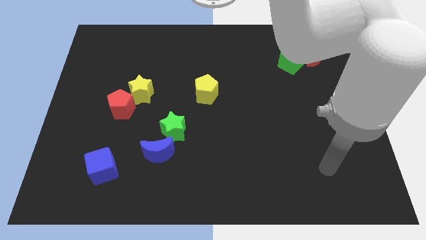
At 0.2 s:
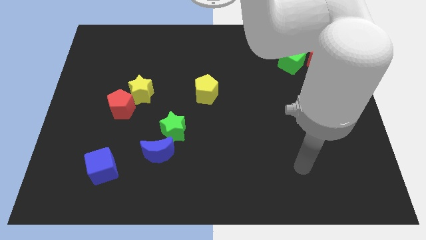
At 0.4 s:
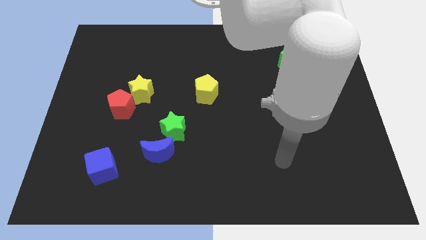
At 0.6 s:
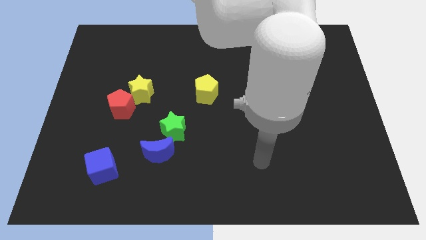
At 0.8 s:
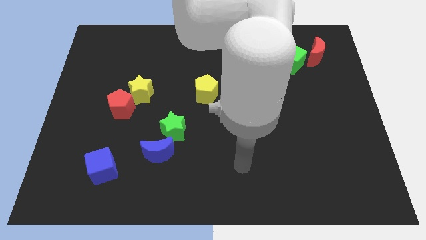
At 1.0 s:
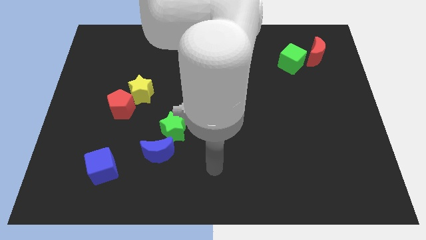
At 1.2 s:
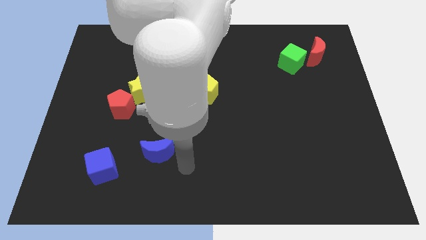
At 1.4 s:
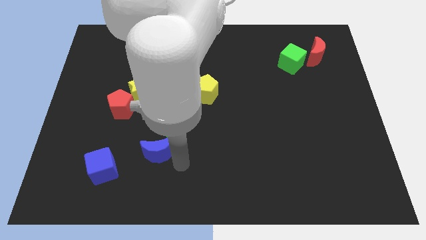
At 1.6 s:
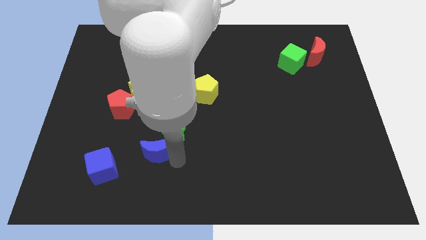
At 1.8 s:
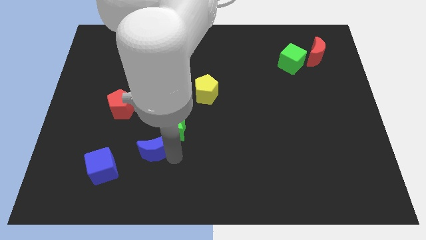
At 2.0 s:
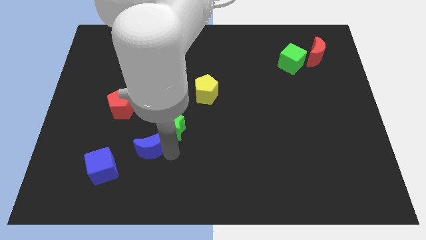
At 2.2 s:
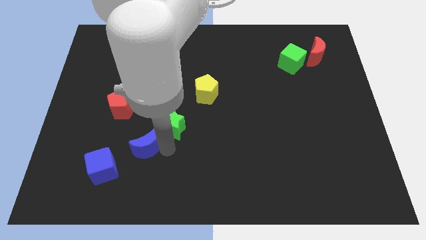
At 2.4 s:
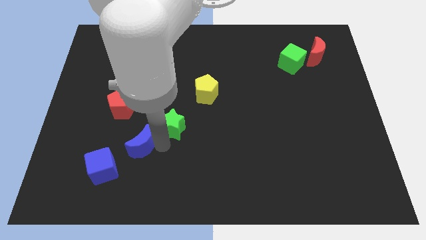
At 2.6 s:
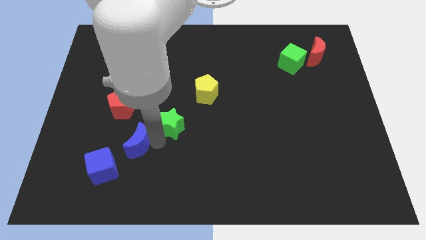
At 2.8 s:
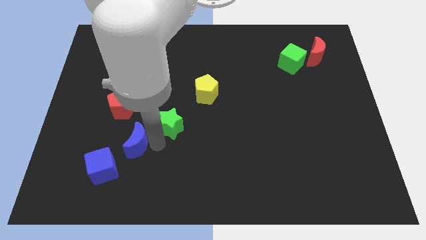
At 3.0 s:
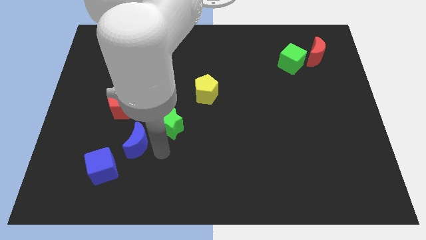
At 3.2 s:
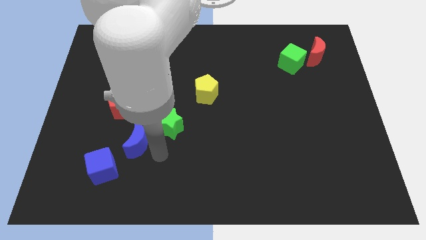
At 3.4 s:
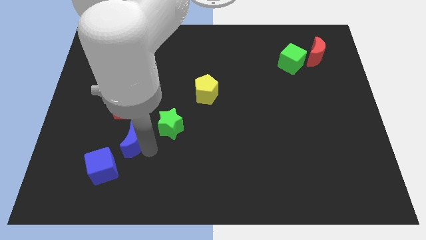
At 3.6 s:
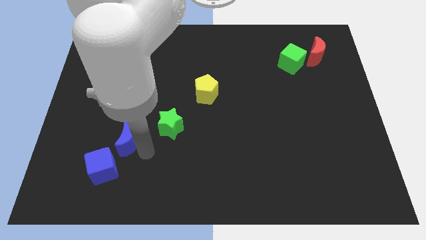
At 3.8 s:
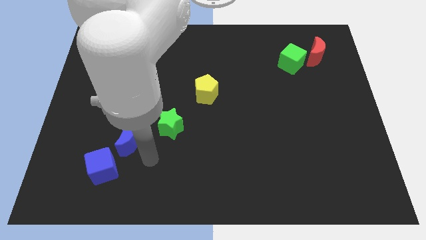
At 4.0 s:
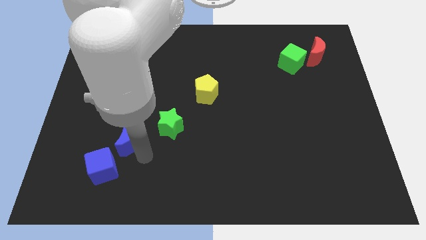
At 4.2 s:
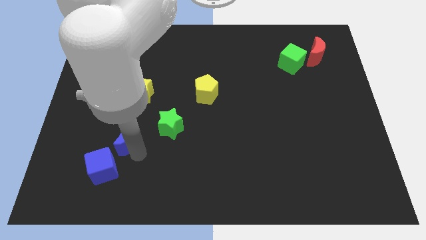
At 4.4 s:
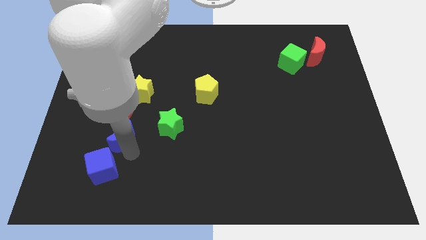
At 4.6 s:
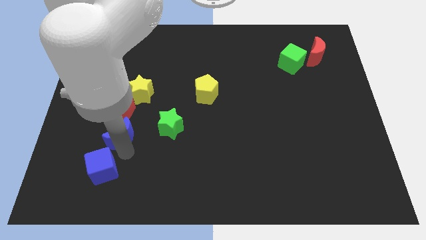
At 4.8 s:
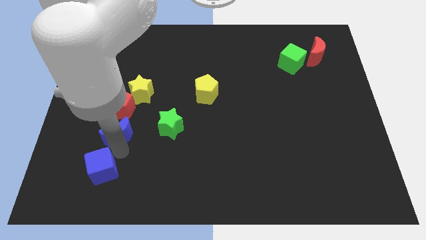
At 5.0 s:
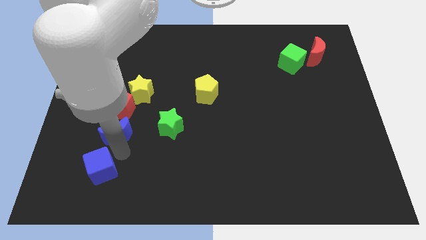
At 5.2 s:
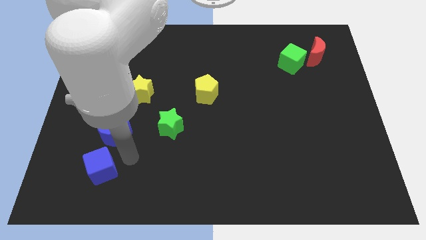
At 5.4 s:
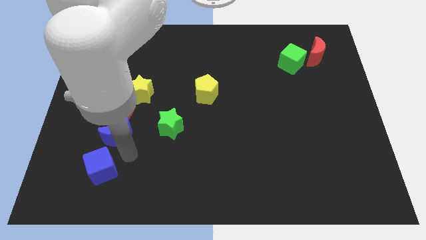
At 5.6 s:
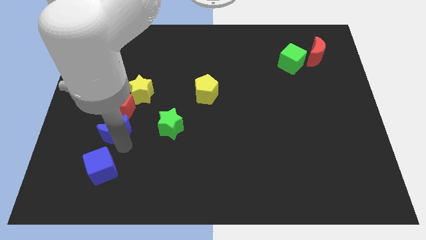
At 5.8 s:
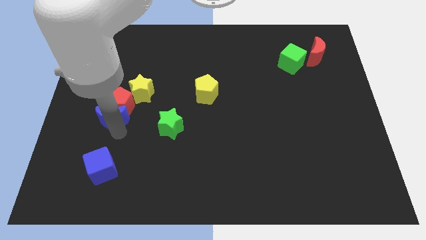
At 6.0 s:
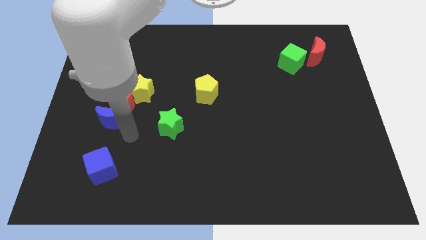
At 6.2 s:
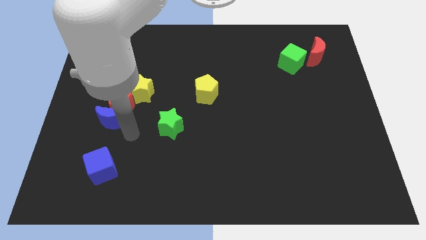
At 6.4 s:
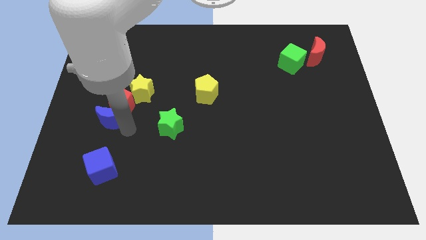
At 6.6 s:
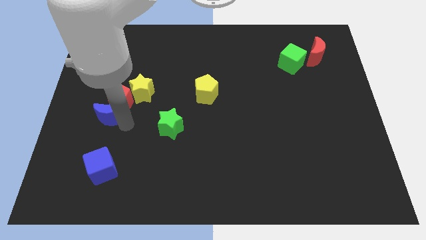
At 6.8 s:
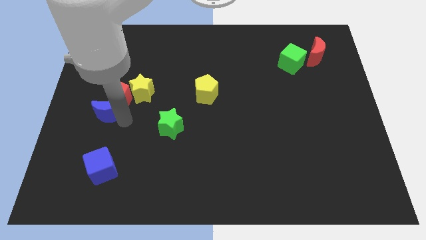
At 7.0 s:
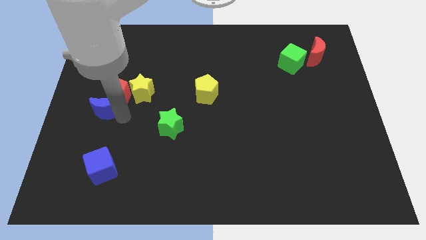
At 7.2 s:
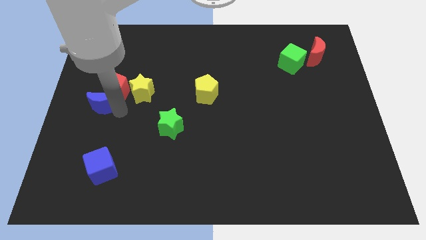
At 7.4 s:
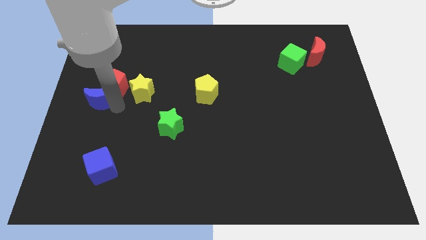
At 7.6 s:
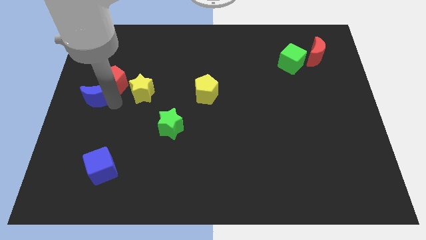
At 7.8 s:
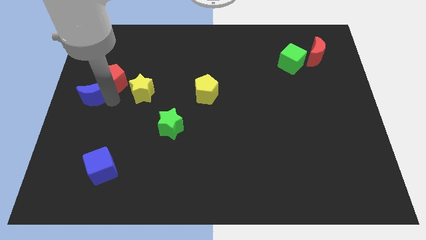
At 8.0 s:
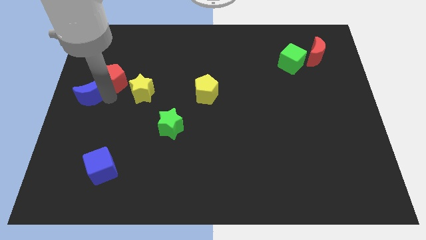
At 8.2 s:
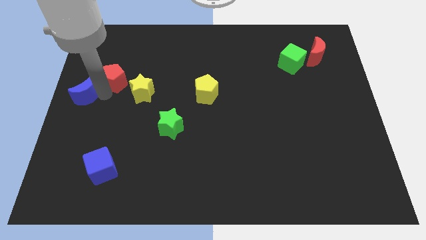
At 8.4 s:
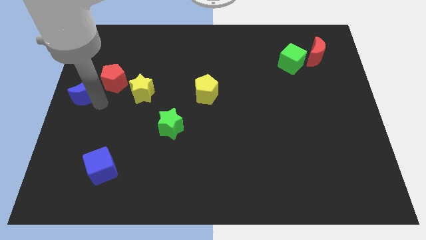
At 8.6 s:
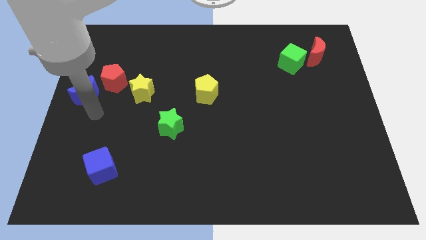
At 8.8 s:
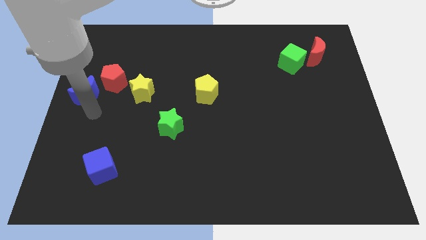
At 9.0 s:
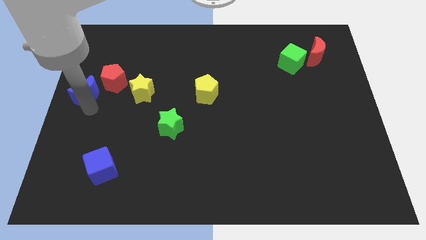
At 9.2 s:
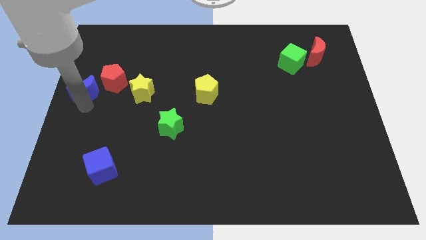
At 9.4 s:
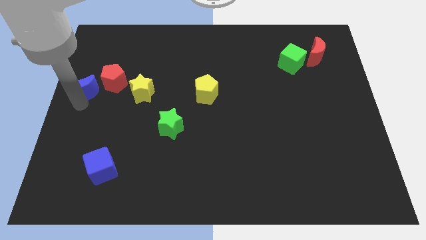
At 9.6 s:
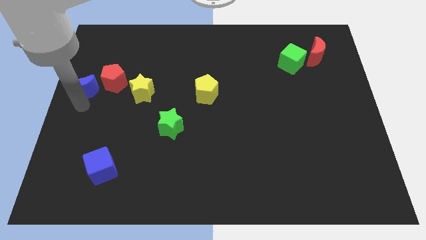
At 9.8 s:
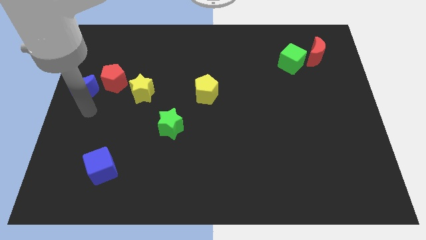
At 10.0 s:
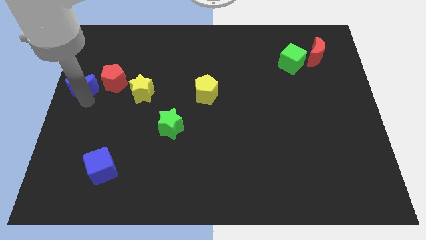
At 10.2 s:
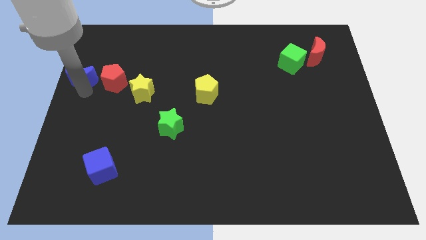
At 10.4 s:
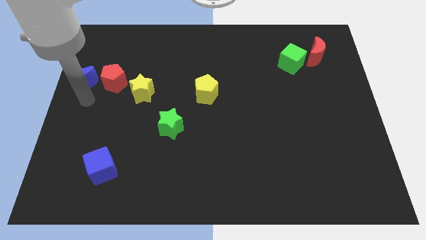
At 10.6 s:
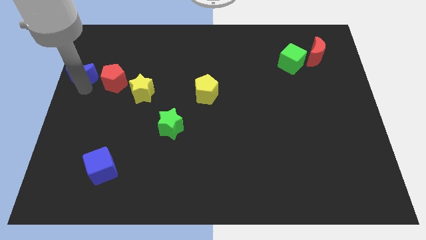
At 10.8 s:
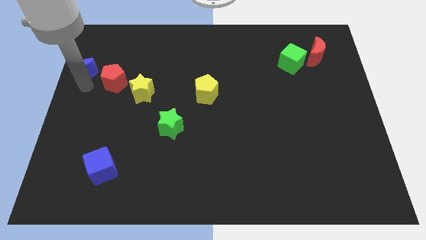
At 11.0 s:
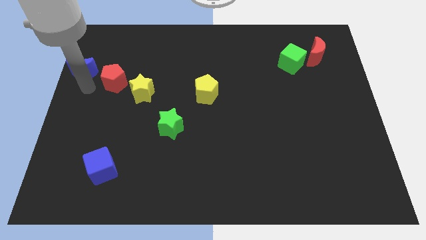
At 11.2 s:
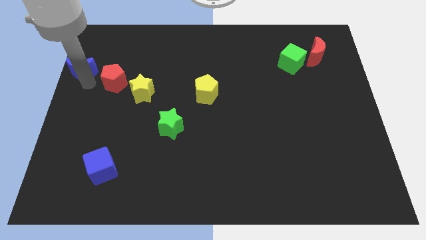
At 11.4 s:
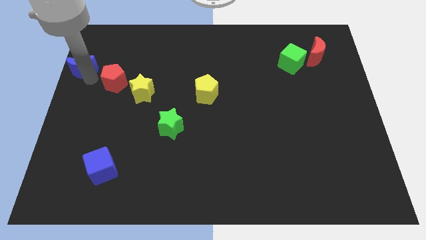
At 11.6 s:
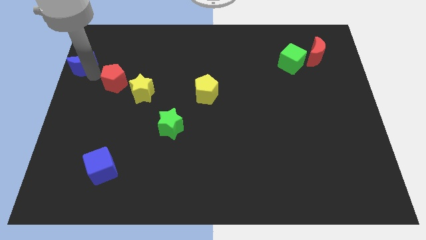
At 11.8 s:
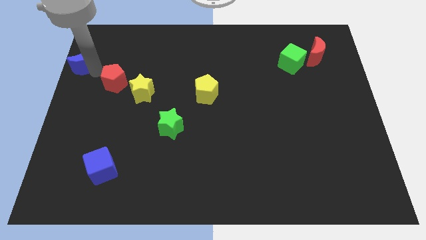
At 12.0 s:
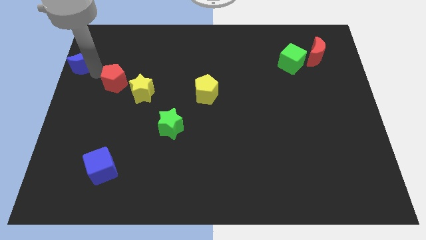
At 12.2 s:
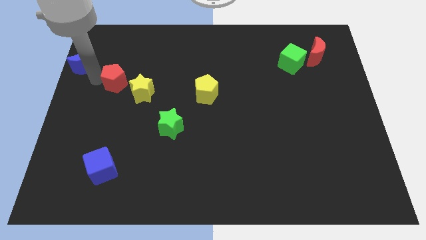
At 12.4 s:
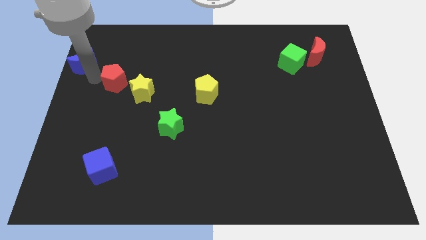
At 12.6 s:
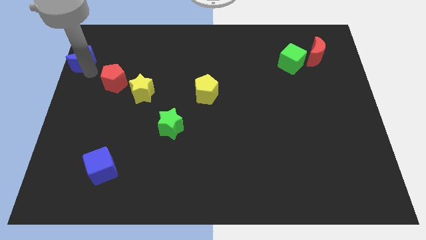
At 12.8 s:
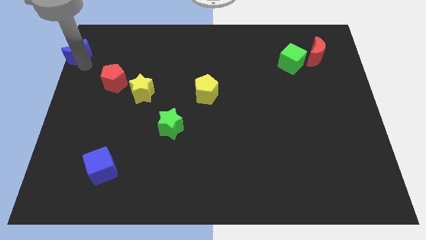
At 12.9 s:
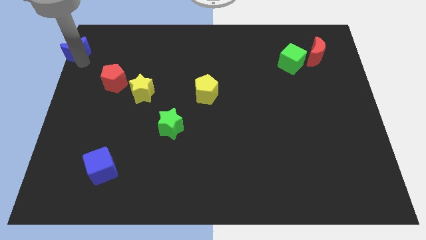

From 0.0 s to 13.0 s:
push the blue moon to the upper left corner

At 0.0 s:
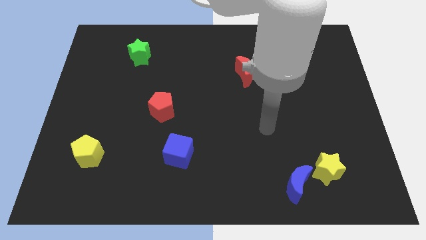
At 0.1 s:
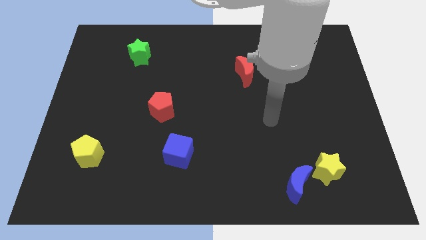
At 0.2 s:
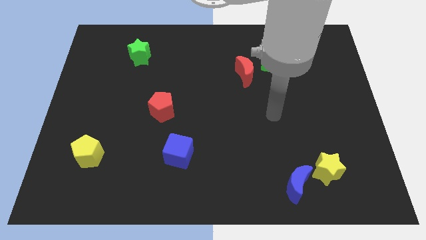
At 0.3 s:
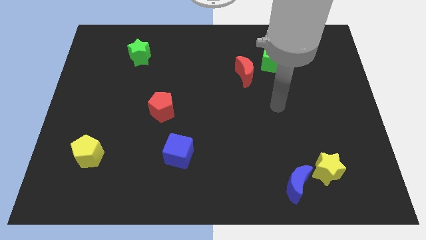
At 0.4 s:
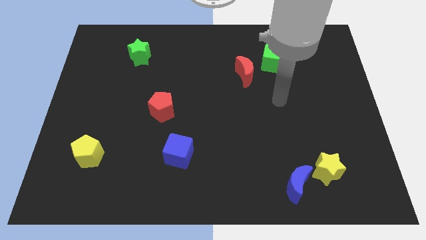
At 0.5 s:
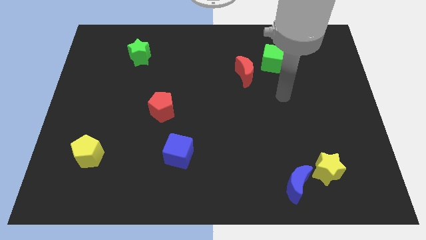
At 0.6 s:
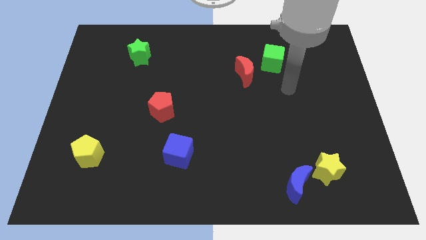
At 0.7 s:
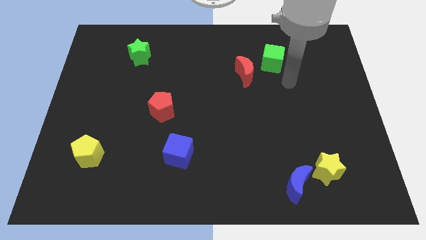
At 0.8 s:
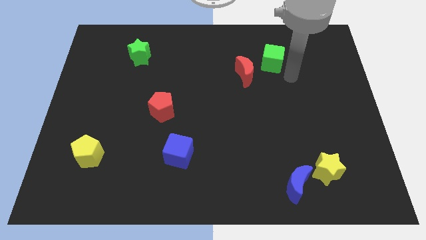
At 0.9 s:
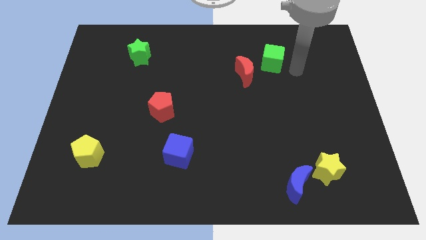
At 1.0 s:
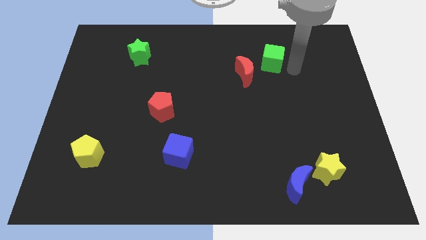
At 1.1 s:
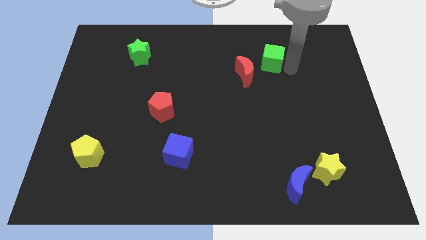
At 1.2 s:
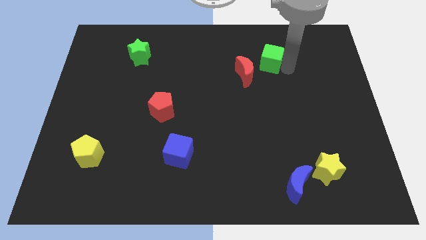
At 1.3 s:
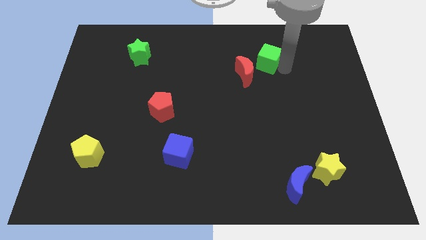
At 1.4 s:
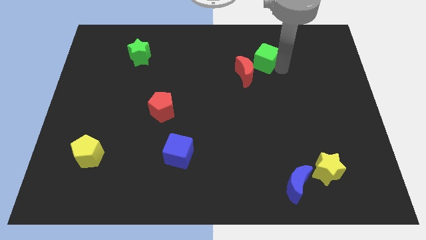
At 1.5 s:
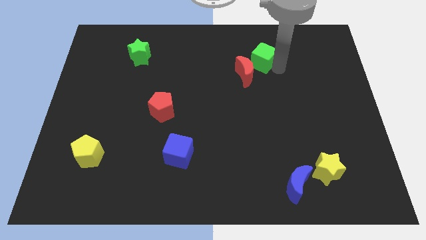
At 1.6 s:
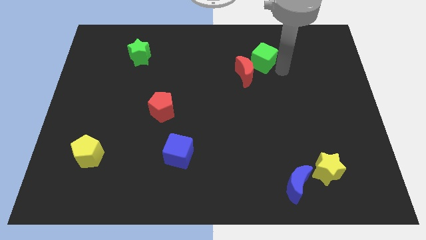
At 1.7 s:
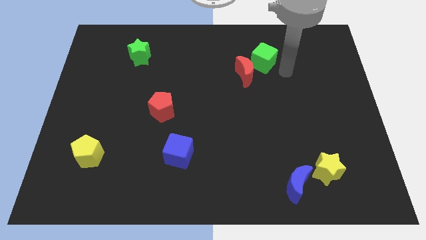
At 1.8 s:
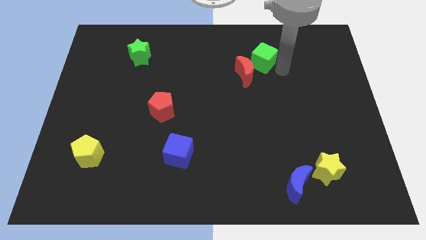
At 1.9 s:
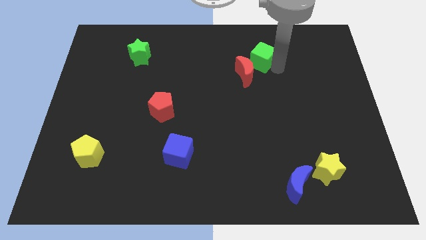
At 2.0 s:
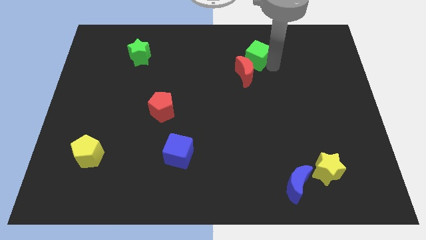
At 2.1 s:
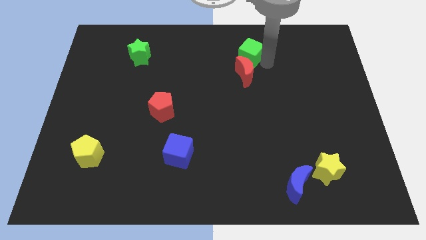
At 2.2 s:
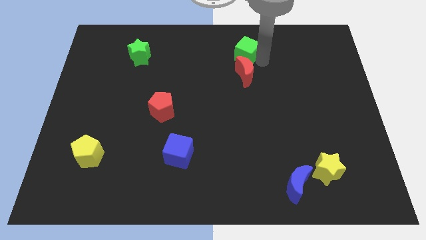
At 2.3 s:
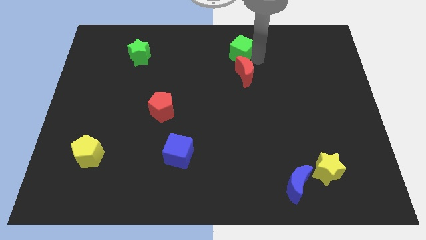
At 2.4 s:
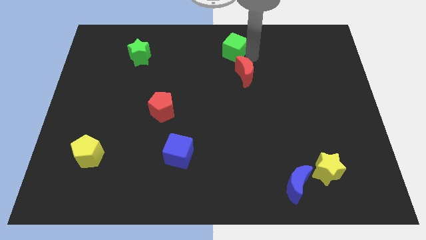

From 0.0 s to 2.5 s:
move the green cube to the top side
